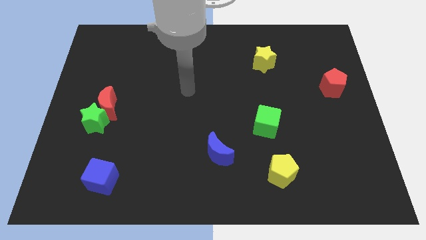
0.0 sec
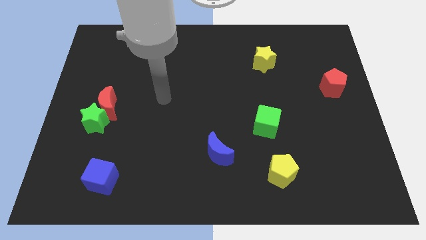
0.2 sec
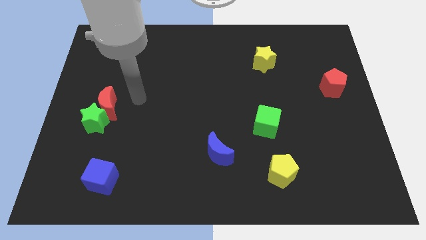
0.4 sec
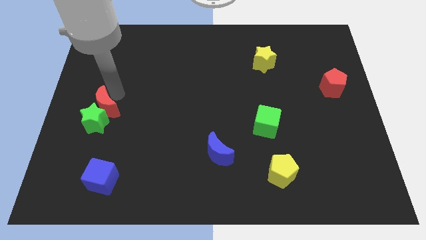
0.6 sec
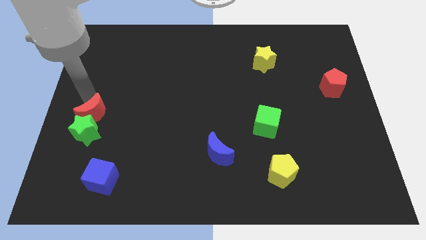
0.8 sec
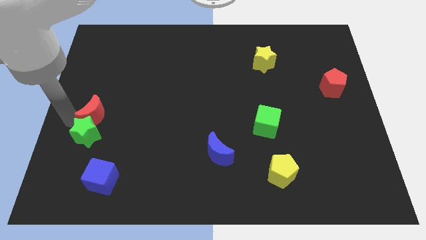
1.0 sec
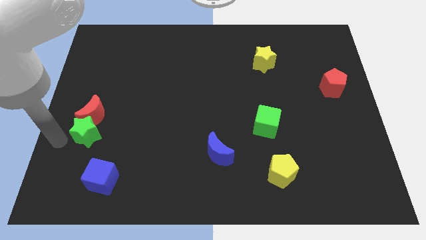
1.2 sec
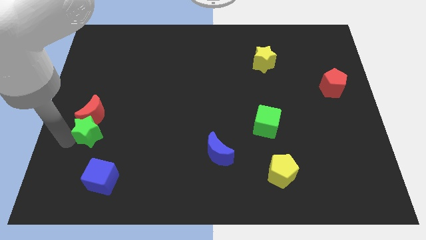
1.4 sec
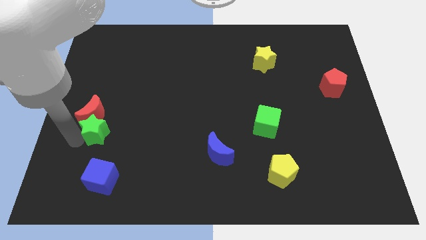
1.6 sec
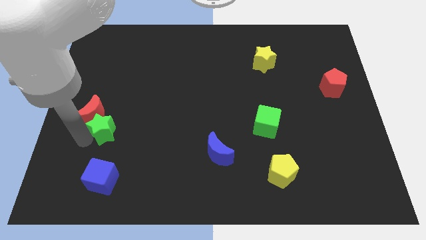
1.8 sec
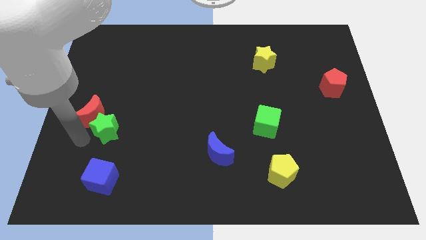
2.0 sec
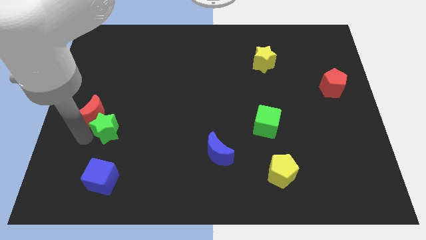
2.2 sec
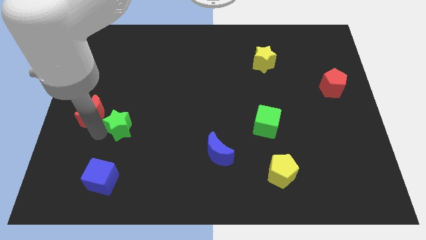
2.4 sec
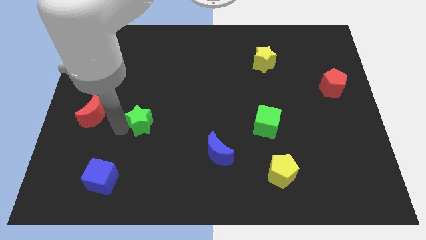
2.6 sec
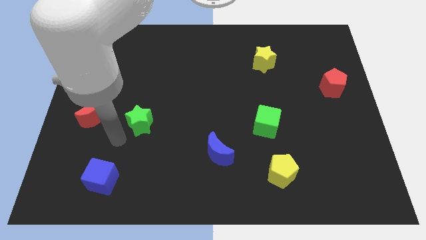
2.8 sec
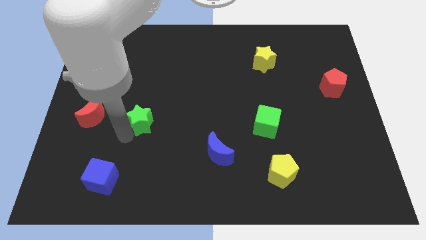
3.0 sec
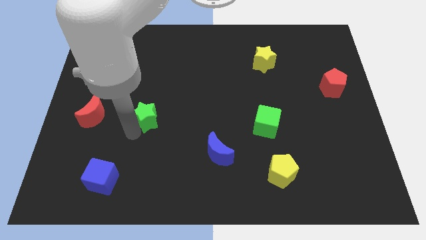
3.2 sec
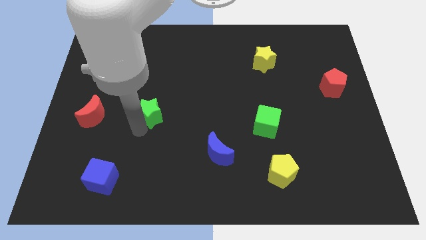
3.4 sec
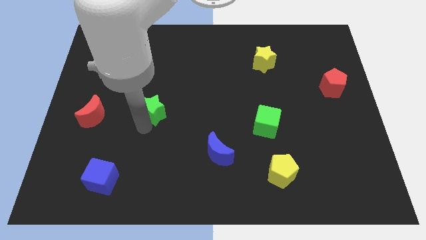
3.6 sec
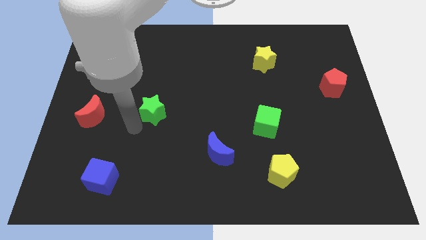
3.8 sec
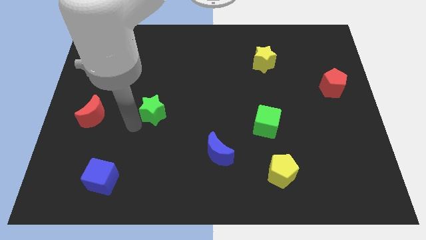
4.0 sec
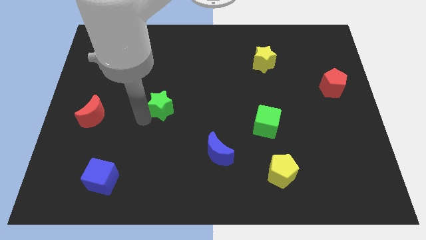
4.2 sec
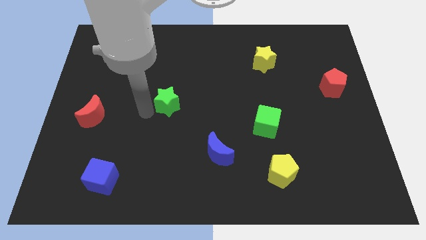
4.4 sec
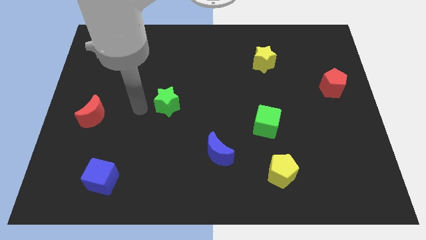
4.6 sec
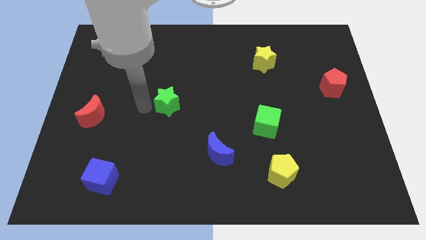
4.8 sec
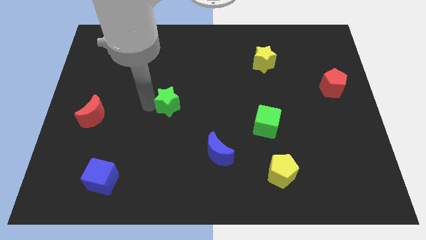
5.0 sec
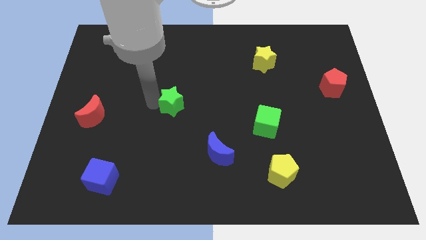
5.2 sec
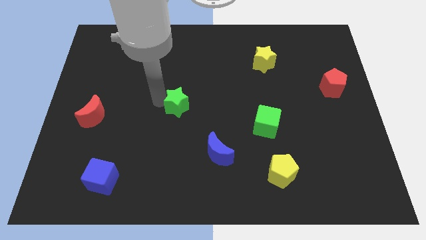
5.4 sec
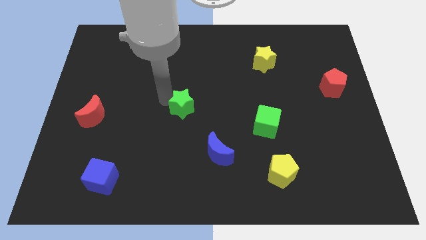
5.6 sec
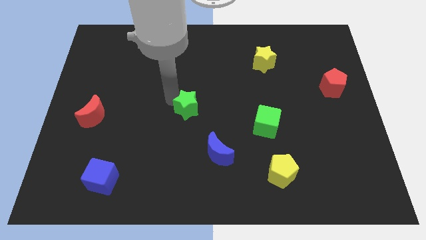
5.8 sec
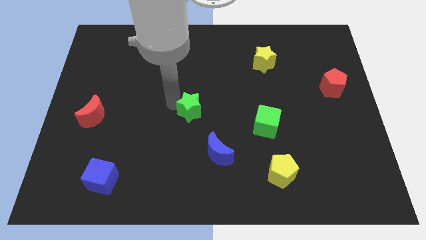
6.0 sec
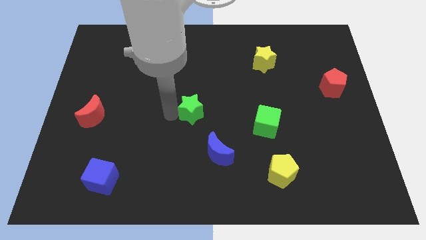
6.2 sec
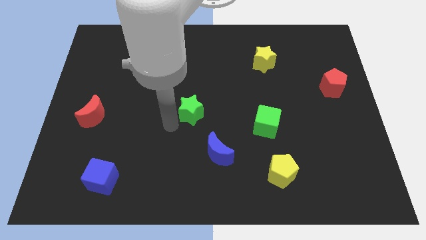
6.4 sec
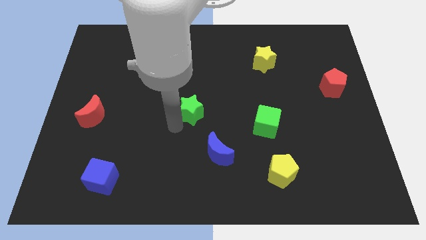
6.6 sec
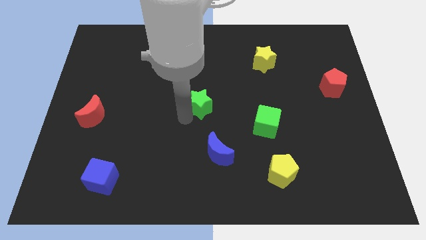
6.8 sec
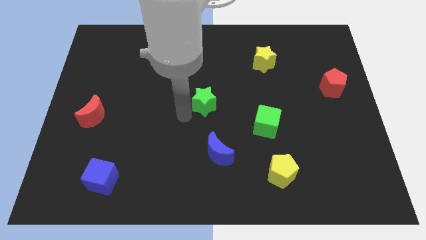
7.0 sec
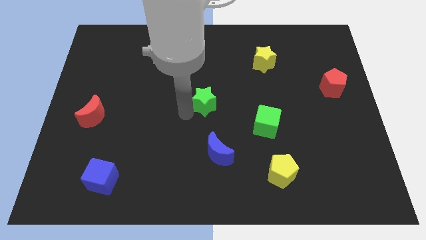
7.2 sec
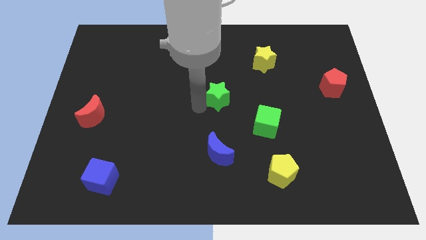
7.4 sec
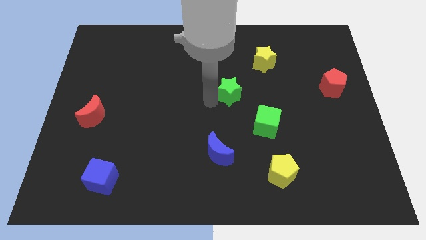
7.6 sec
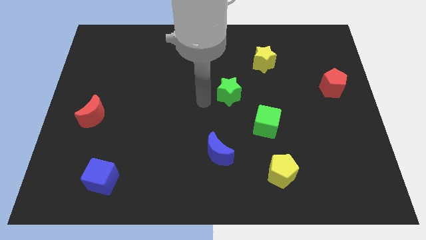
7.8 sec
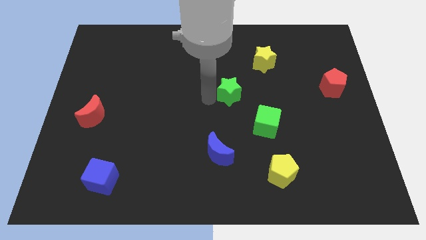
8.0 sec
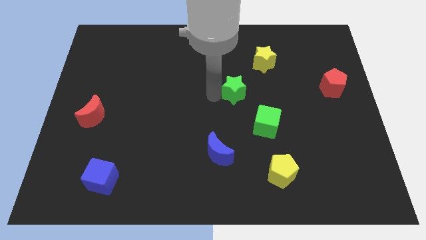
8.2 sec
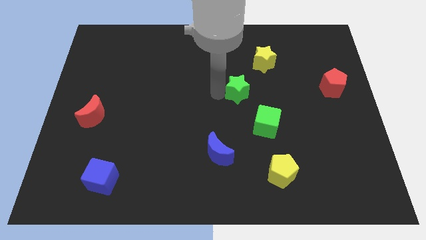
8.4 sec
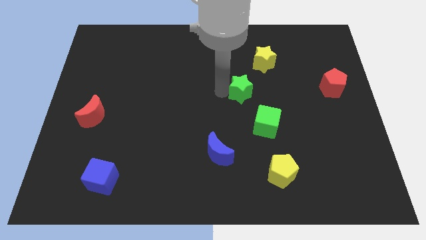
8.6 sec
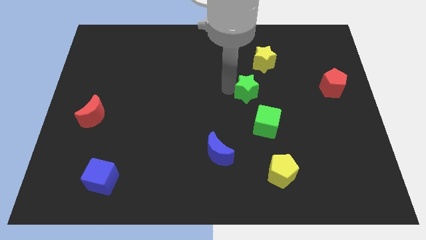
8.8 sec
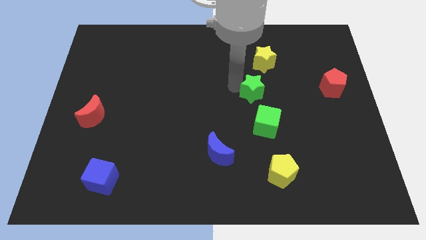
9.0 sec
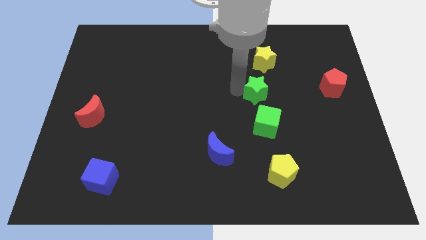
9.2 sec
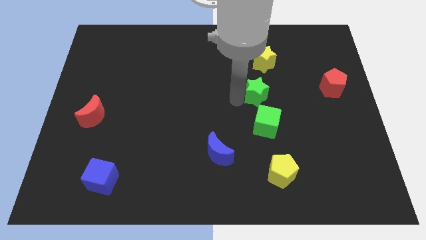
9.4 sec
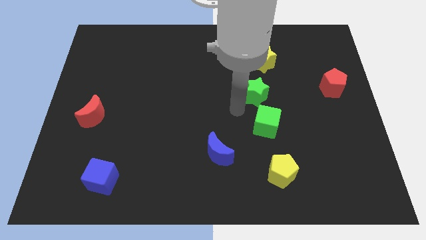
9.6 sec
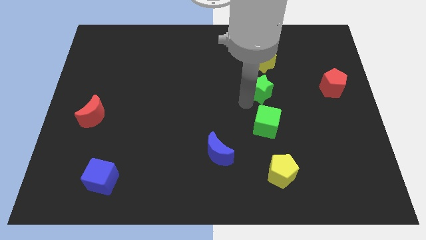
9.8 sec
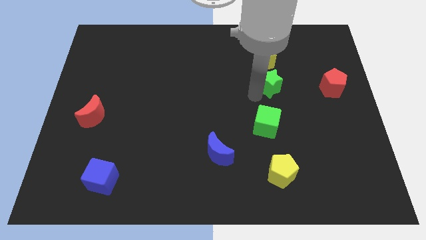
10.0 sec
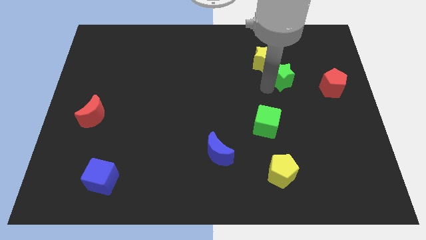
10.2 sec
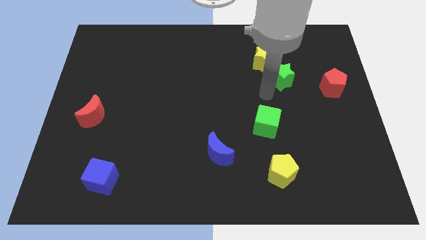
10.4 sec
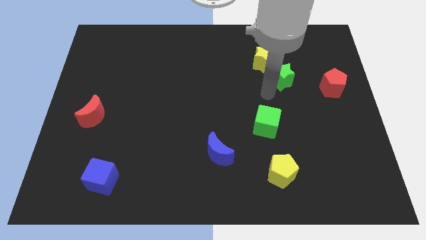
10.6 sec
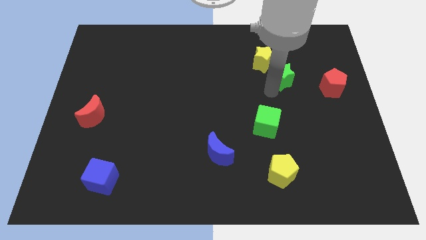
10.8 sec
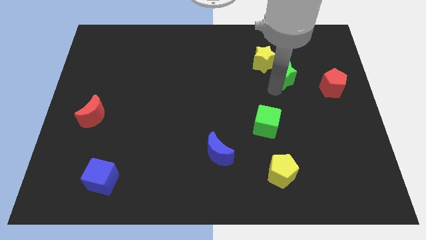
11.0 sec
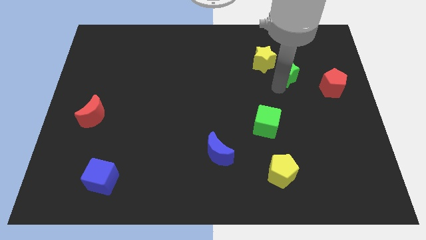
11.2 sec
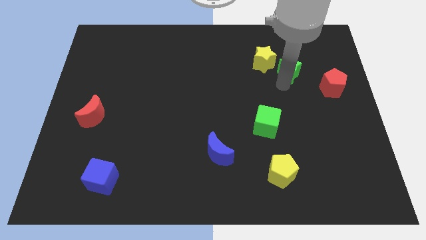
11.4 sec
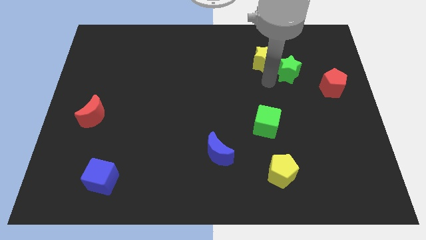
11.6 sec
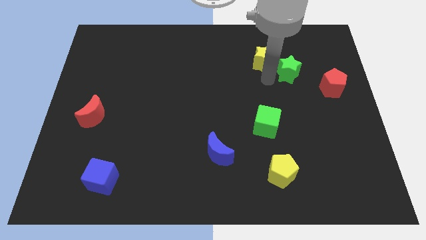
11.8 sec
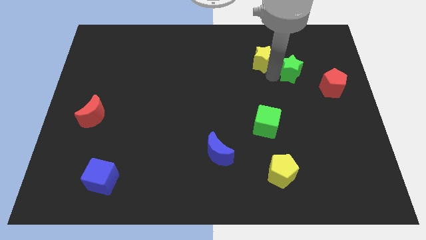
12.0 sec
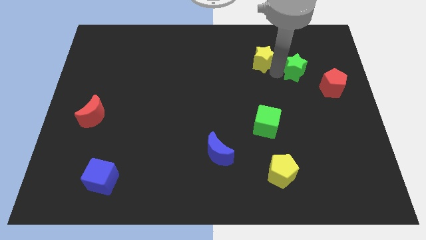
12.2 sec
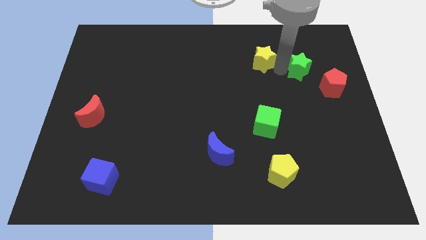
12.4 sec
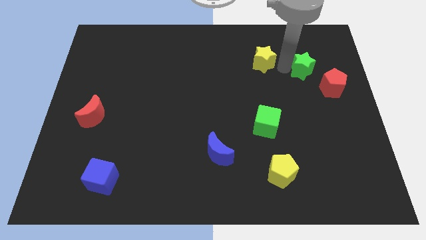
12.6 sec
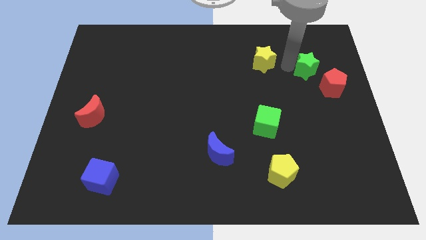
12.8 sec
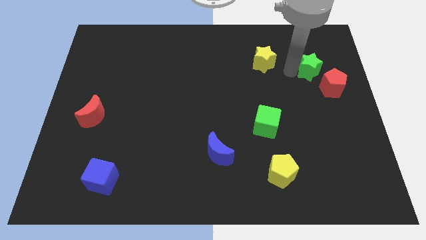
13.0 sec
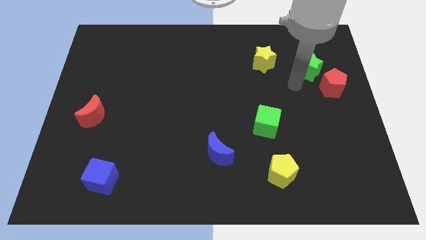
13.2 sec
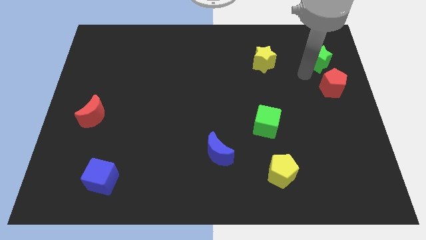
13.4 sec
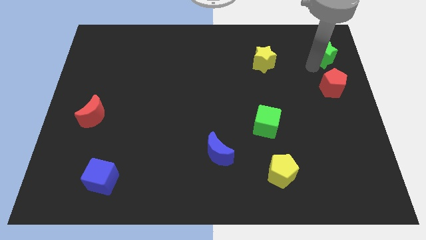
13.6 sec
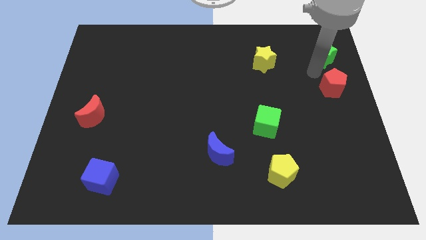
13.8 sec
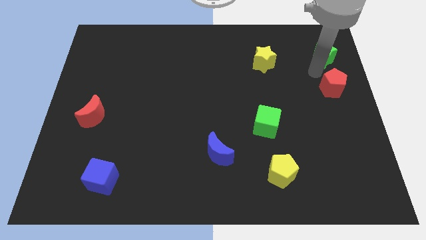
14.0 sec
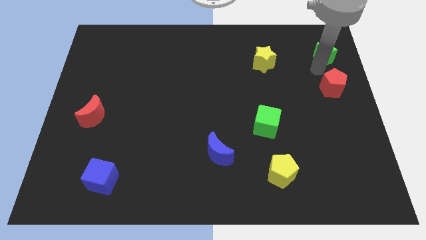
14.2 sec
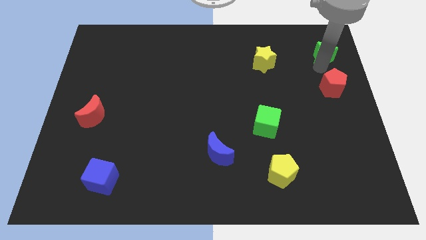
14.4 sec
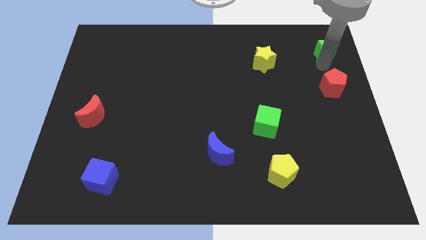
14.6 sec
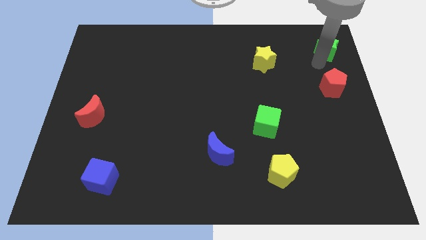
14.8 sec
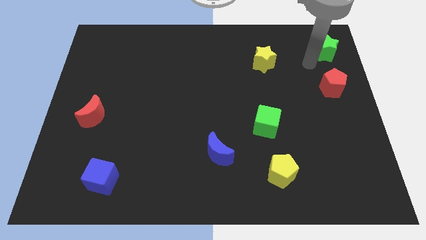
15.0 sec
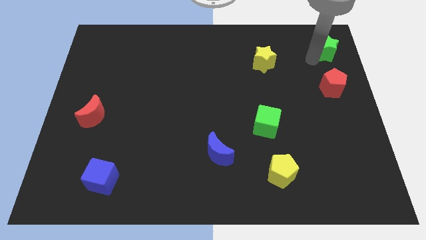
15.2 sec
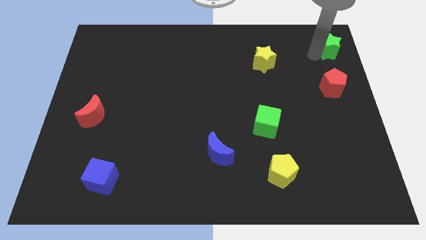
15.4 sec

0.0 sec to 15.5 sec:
slide the green star to the top right
